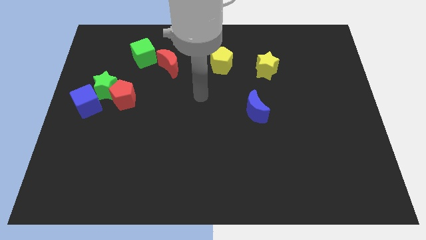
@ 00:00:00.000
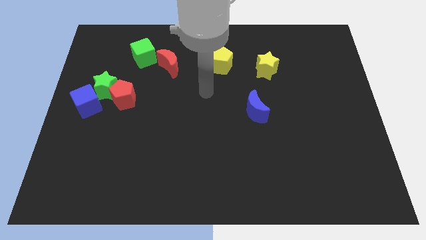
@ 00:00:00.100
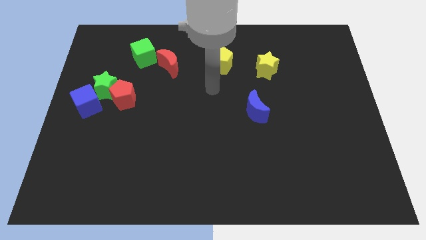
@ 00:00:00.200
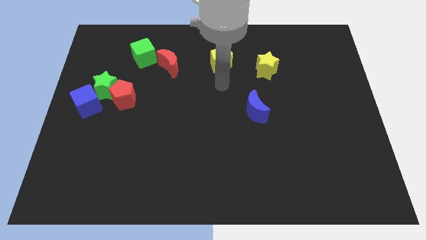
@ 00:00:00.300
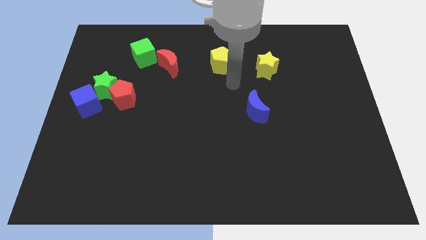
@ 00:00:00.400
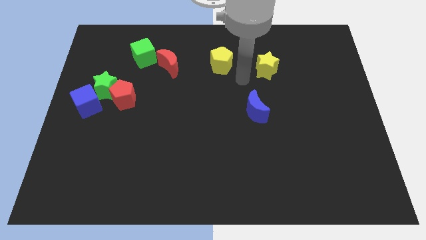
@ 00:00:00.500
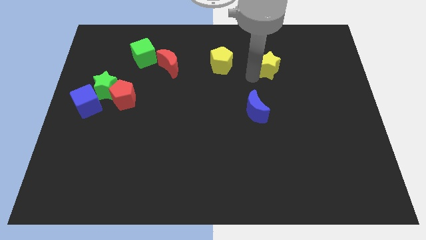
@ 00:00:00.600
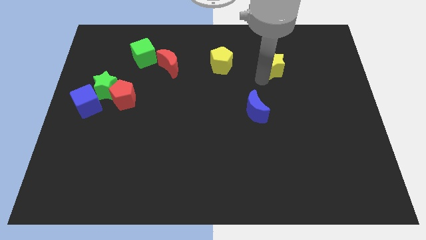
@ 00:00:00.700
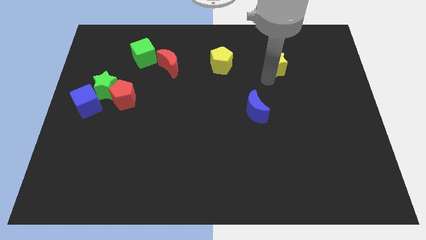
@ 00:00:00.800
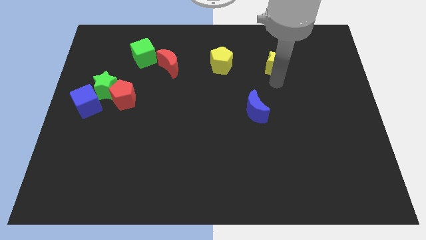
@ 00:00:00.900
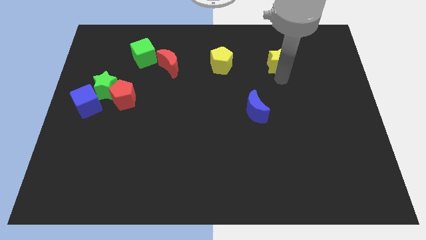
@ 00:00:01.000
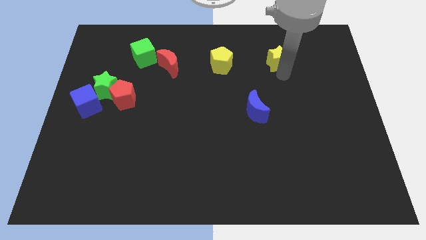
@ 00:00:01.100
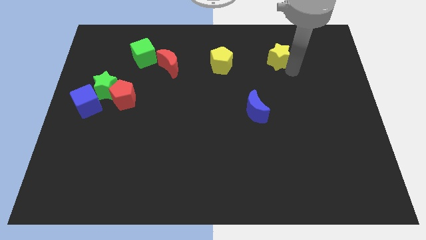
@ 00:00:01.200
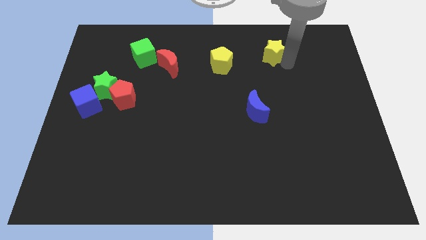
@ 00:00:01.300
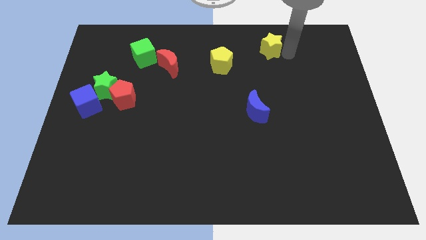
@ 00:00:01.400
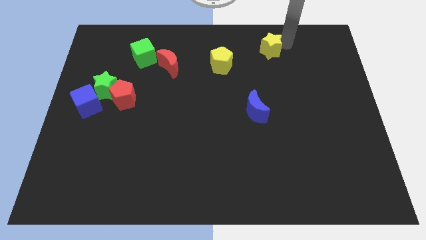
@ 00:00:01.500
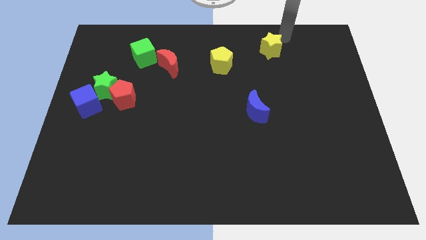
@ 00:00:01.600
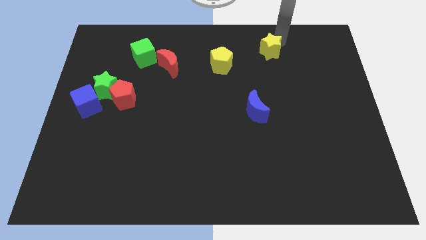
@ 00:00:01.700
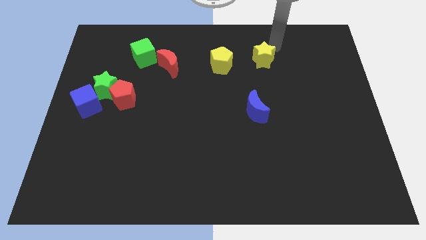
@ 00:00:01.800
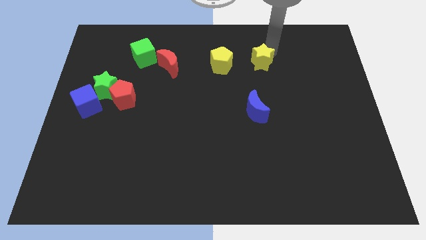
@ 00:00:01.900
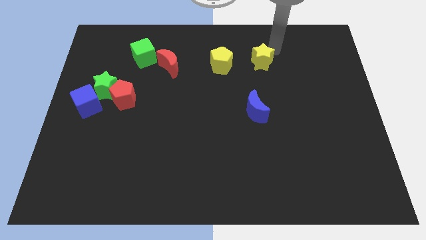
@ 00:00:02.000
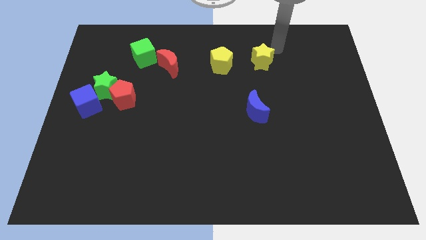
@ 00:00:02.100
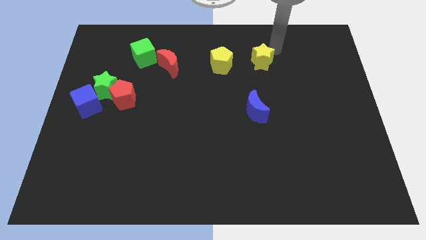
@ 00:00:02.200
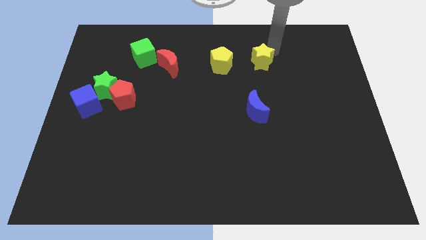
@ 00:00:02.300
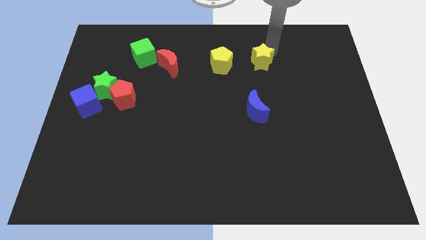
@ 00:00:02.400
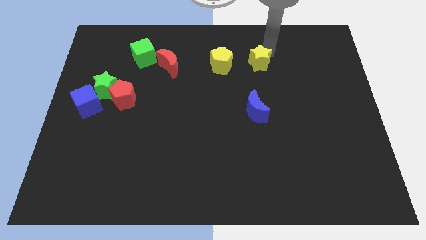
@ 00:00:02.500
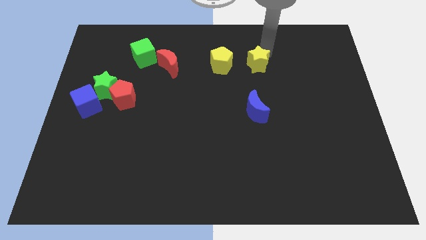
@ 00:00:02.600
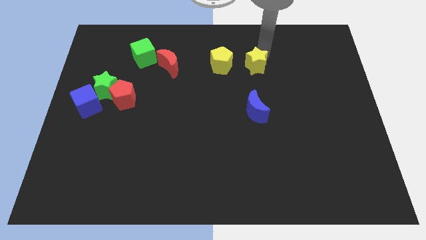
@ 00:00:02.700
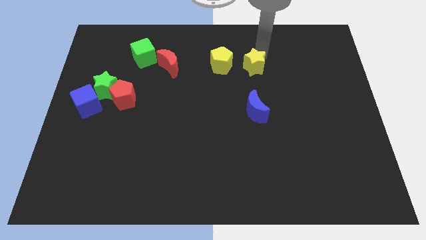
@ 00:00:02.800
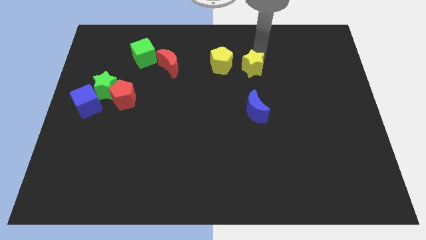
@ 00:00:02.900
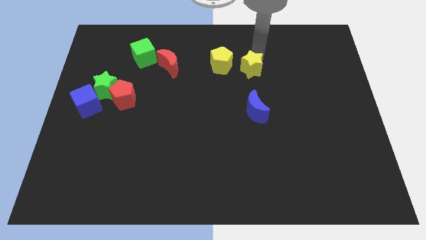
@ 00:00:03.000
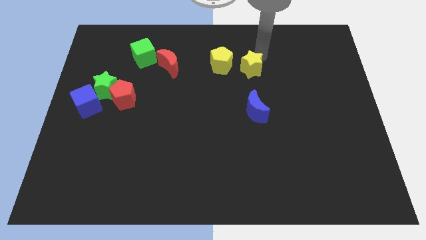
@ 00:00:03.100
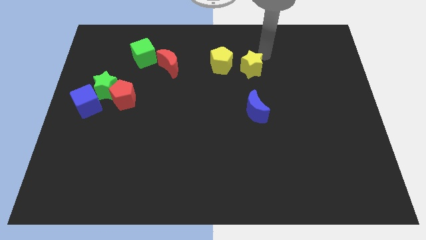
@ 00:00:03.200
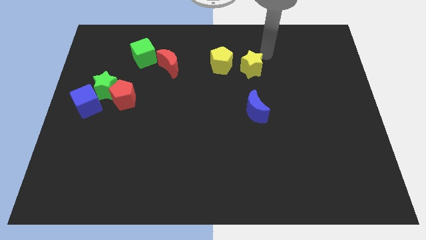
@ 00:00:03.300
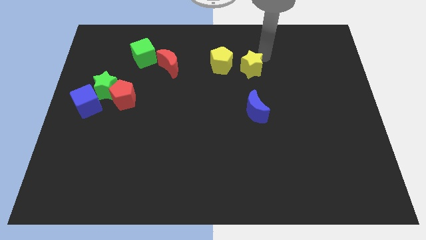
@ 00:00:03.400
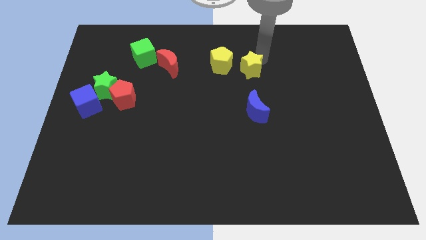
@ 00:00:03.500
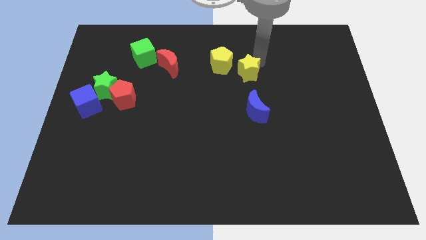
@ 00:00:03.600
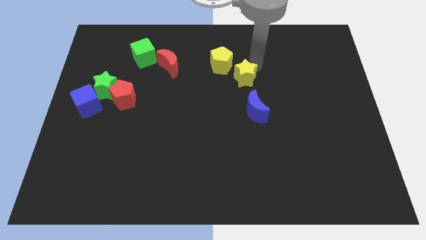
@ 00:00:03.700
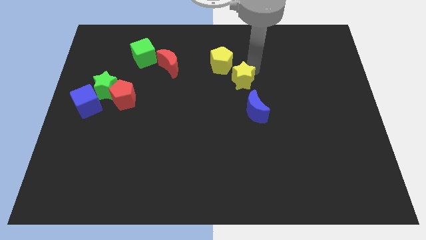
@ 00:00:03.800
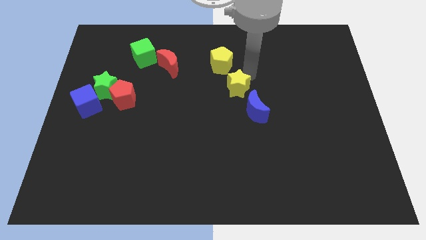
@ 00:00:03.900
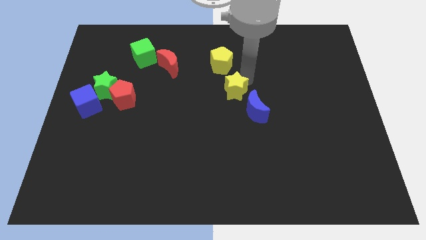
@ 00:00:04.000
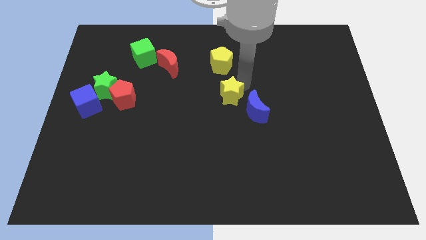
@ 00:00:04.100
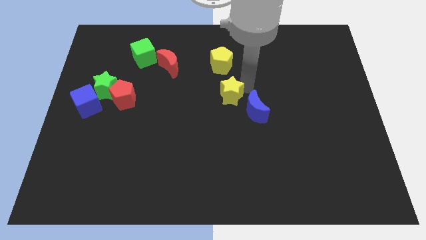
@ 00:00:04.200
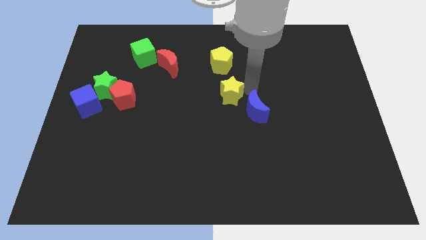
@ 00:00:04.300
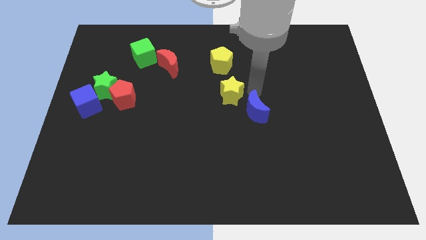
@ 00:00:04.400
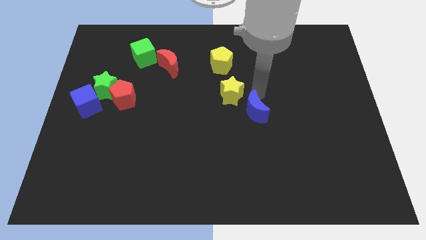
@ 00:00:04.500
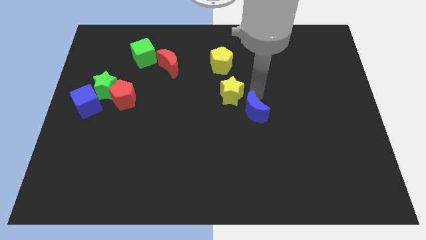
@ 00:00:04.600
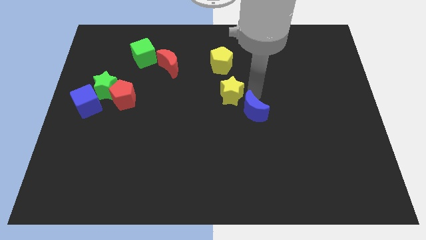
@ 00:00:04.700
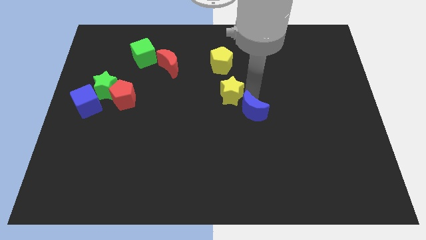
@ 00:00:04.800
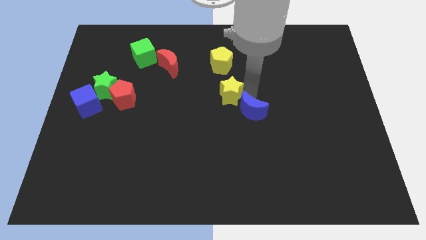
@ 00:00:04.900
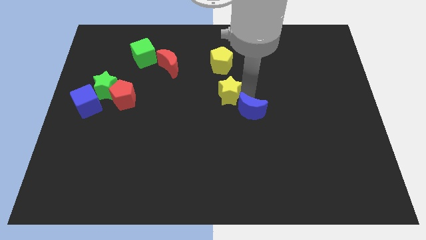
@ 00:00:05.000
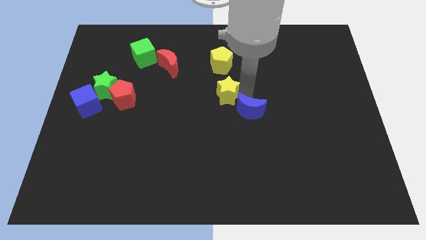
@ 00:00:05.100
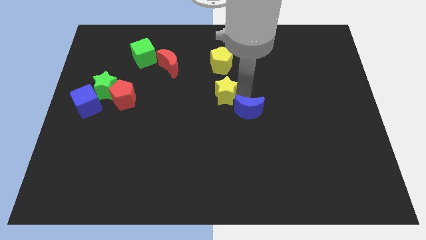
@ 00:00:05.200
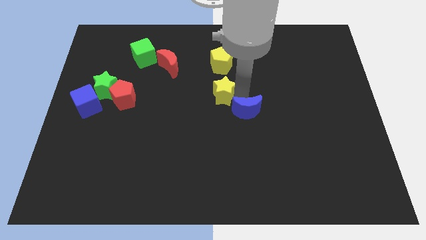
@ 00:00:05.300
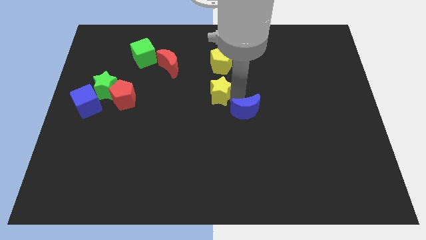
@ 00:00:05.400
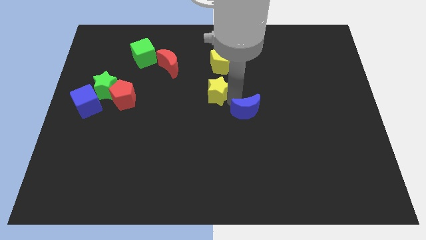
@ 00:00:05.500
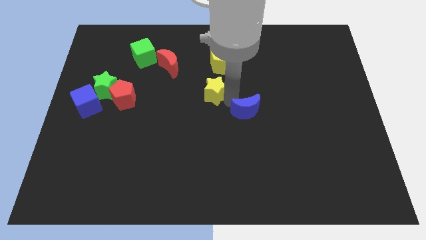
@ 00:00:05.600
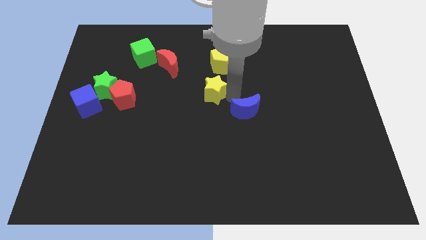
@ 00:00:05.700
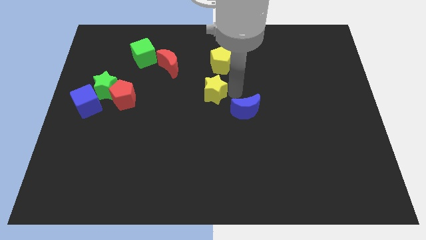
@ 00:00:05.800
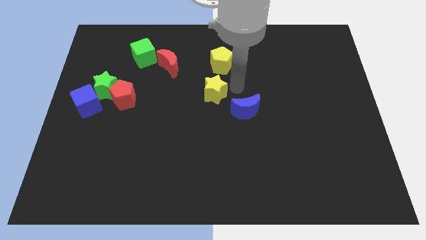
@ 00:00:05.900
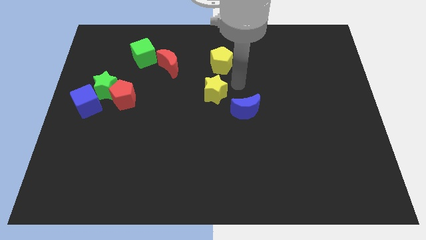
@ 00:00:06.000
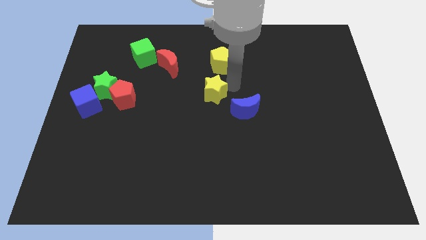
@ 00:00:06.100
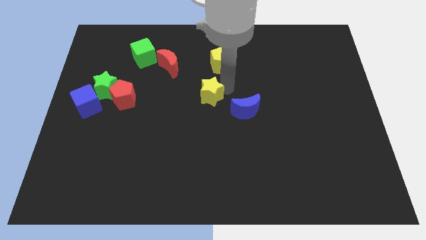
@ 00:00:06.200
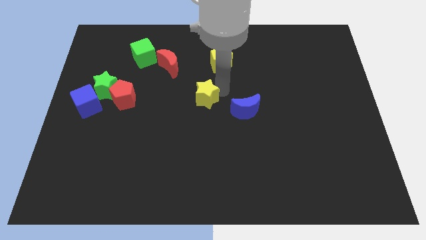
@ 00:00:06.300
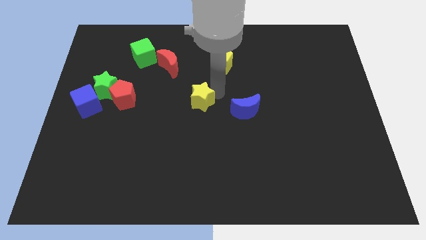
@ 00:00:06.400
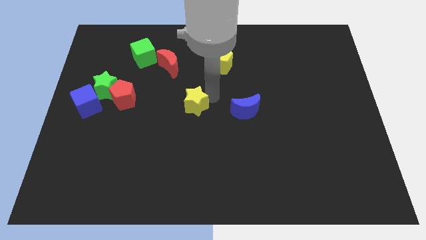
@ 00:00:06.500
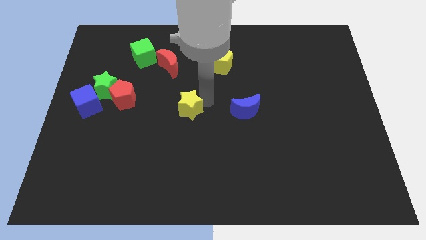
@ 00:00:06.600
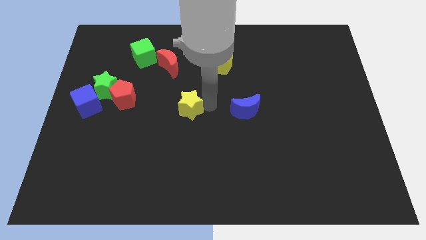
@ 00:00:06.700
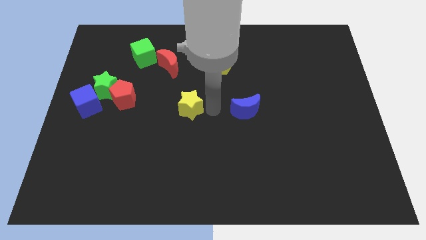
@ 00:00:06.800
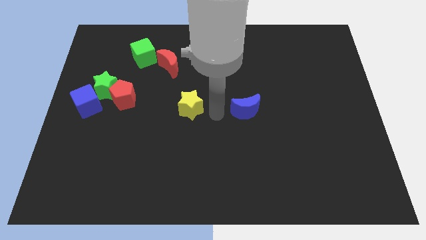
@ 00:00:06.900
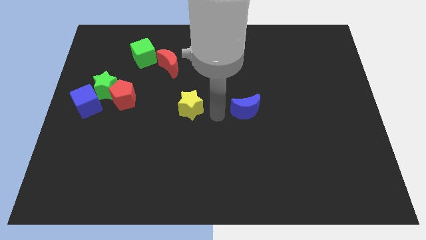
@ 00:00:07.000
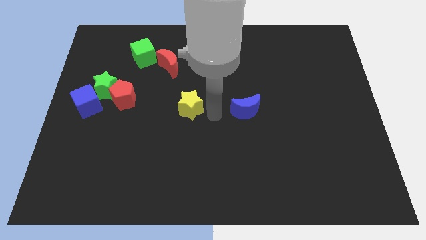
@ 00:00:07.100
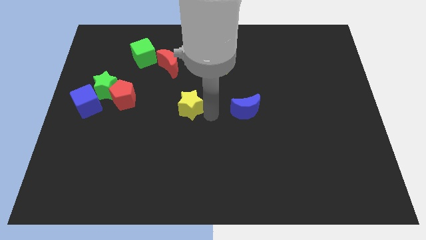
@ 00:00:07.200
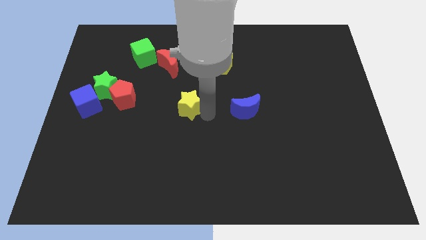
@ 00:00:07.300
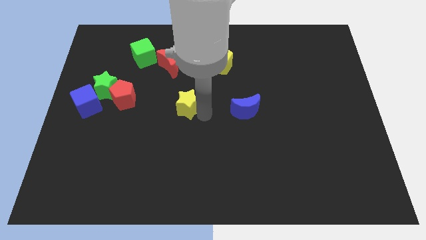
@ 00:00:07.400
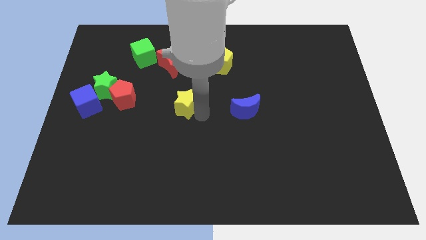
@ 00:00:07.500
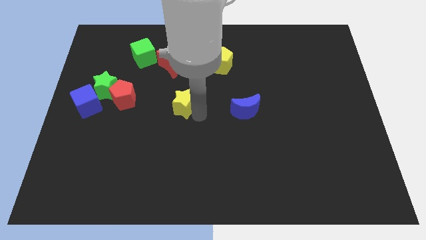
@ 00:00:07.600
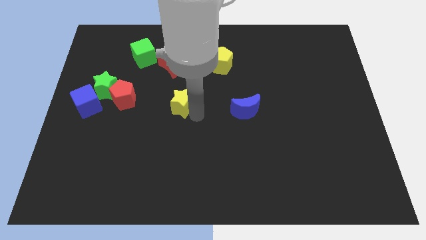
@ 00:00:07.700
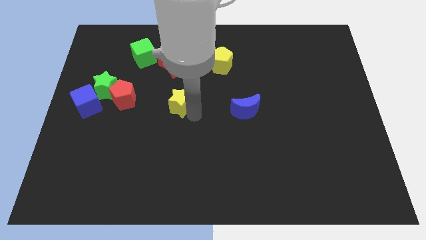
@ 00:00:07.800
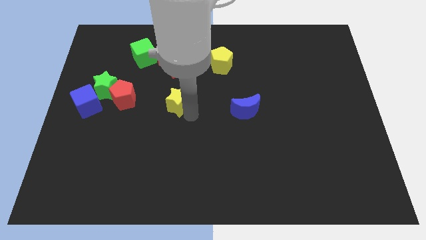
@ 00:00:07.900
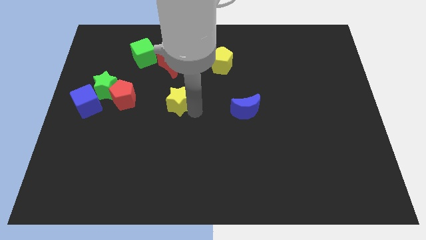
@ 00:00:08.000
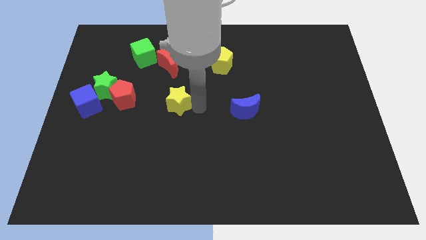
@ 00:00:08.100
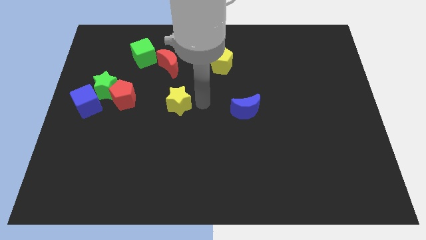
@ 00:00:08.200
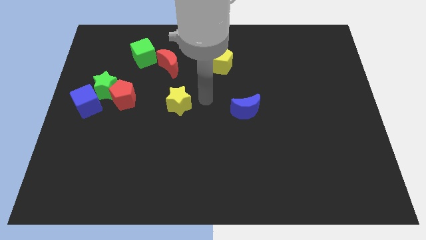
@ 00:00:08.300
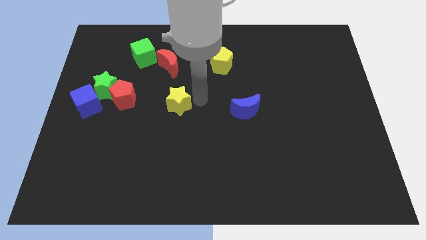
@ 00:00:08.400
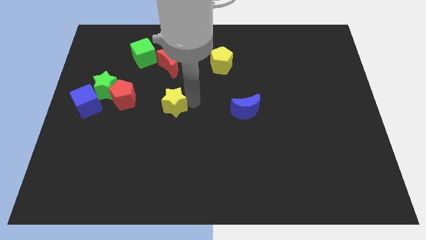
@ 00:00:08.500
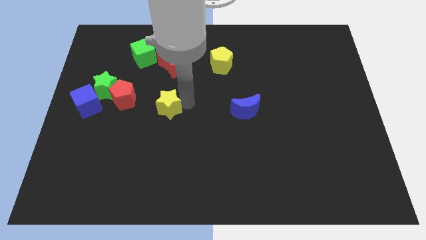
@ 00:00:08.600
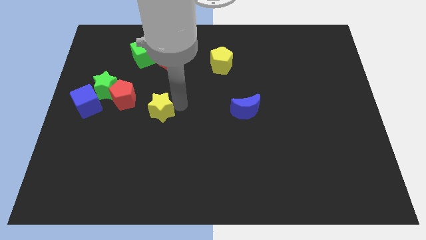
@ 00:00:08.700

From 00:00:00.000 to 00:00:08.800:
put the yellow star to the bottom right side of the red pentagon
